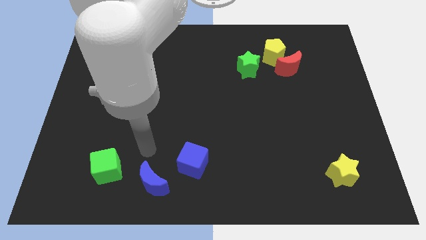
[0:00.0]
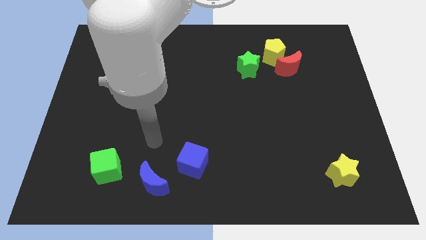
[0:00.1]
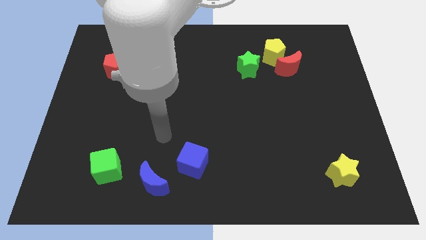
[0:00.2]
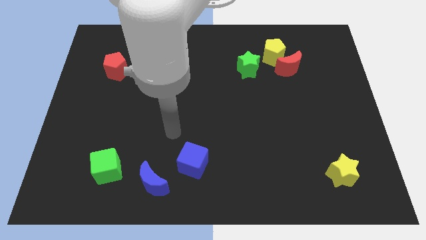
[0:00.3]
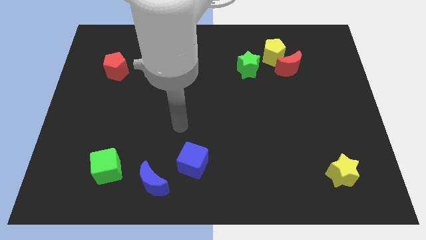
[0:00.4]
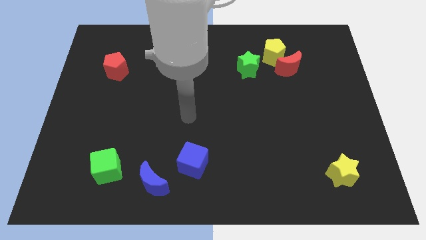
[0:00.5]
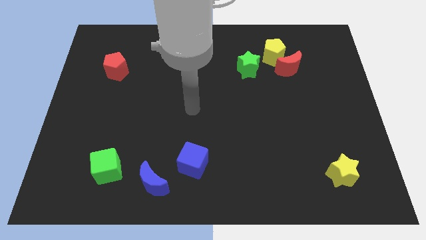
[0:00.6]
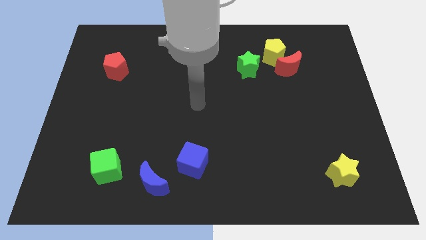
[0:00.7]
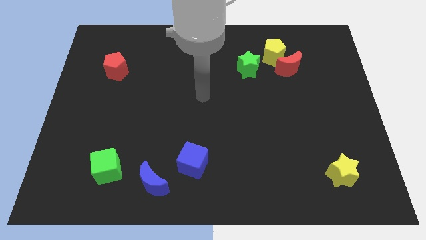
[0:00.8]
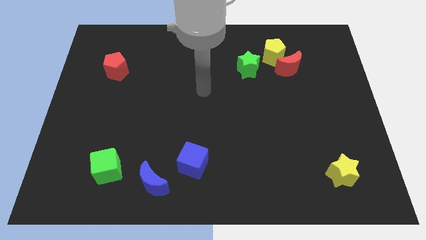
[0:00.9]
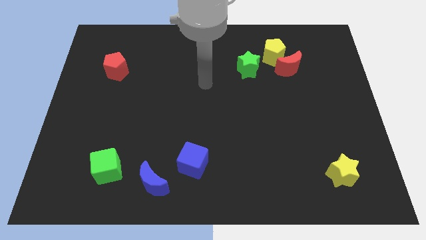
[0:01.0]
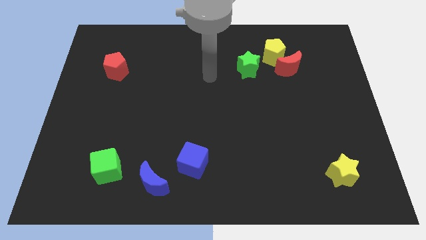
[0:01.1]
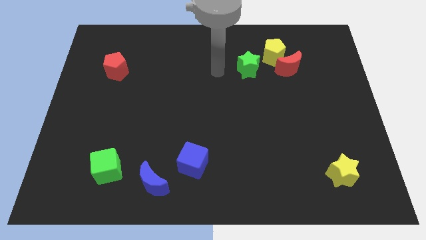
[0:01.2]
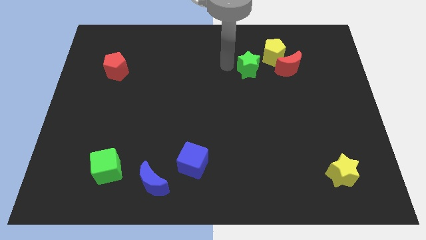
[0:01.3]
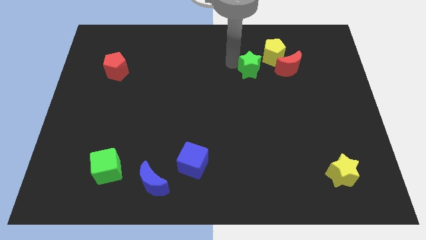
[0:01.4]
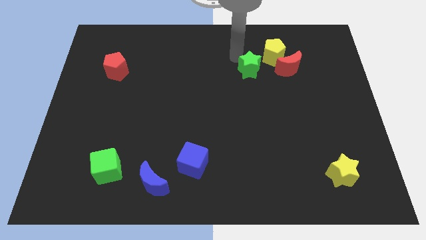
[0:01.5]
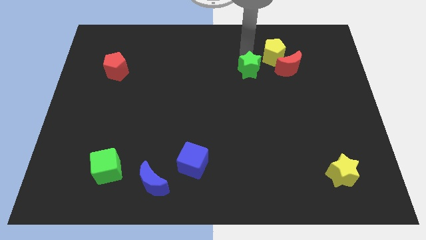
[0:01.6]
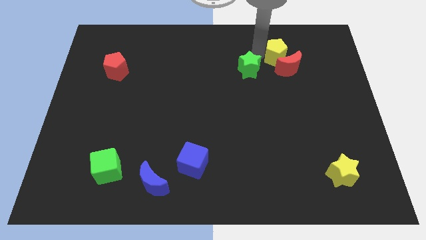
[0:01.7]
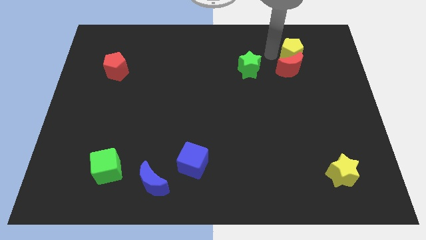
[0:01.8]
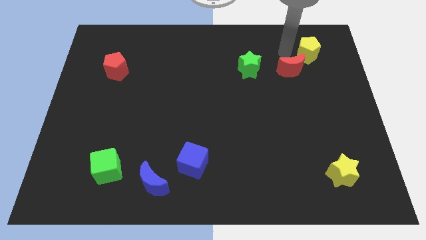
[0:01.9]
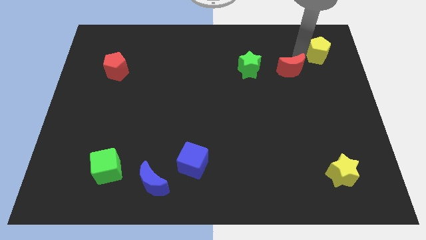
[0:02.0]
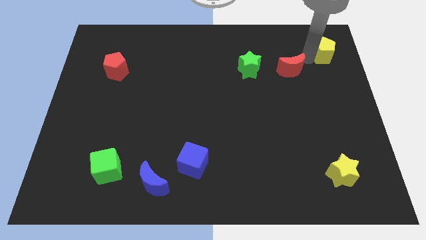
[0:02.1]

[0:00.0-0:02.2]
pull the red moon apart from the yellow pentagon

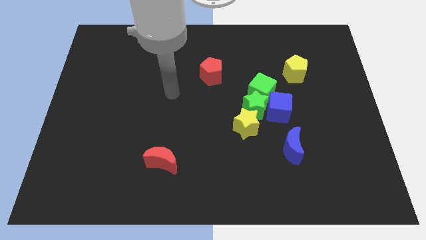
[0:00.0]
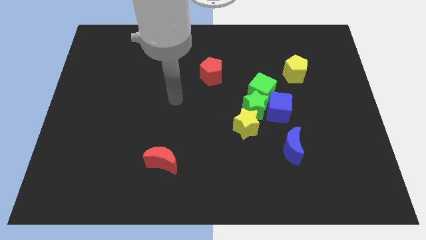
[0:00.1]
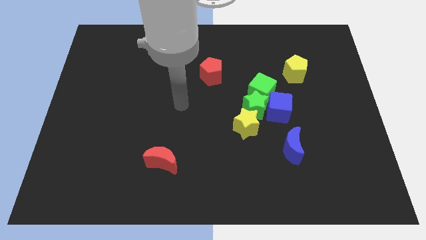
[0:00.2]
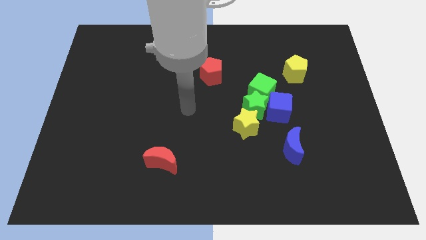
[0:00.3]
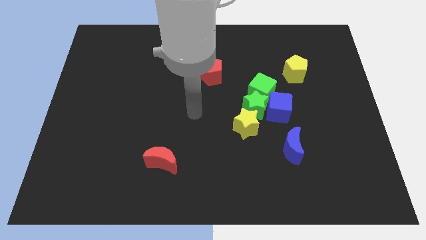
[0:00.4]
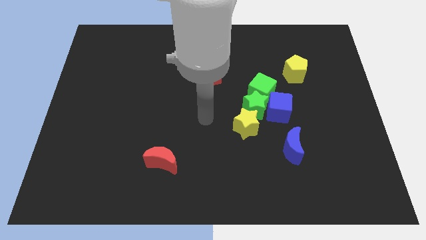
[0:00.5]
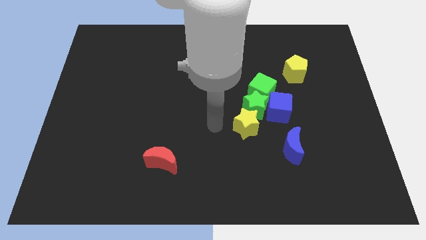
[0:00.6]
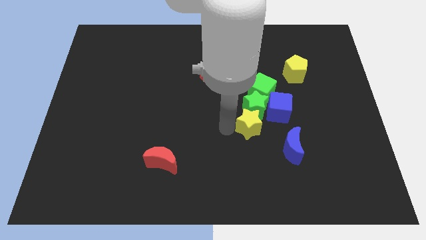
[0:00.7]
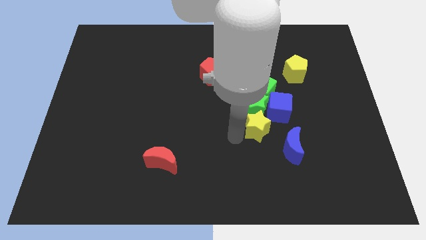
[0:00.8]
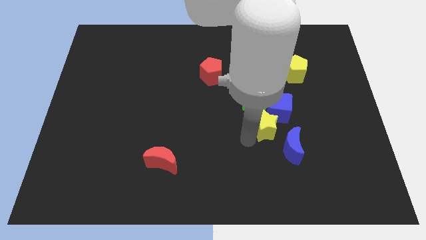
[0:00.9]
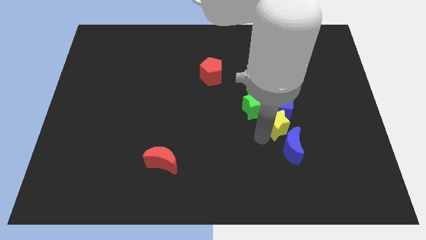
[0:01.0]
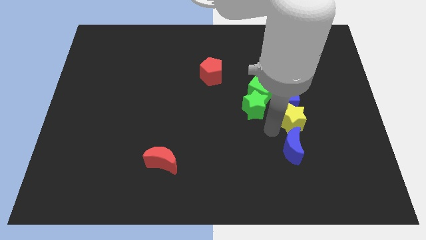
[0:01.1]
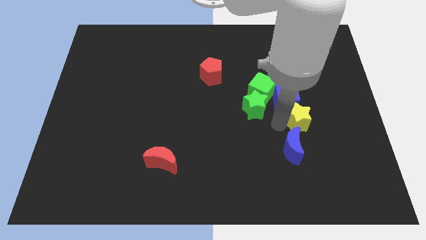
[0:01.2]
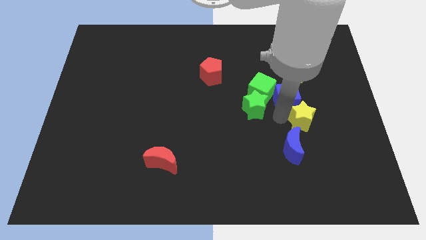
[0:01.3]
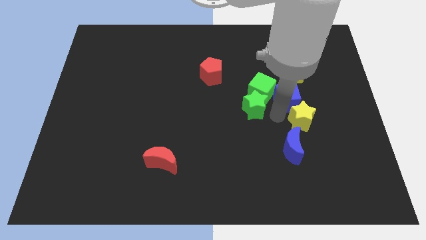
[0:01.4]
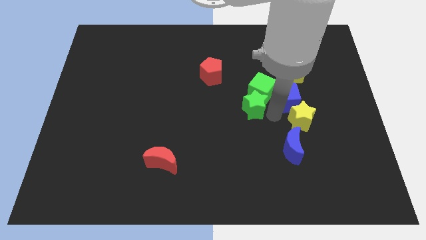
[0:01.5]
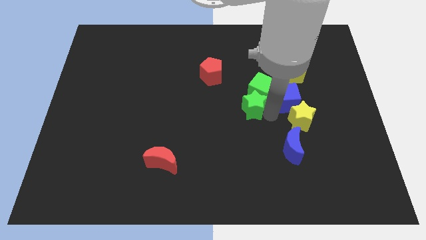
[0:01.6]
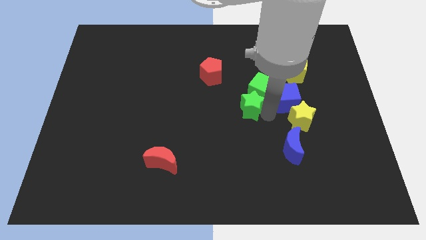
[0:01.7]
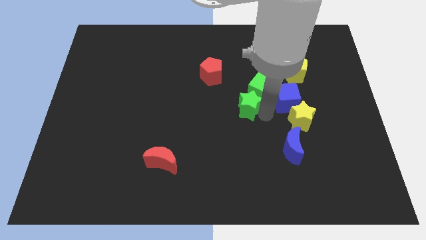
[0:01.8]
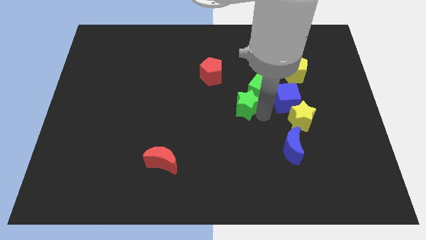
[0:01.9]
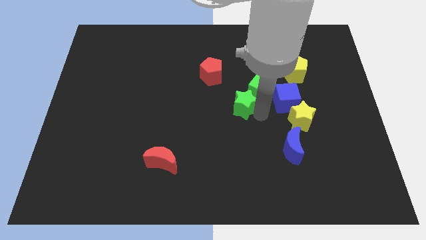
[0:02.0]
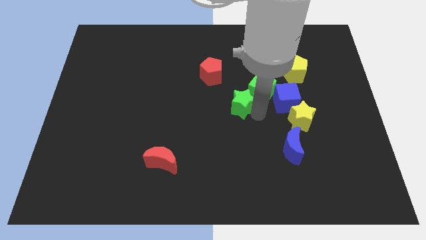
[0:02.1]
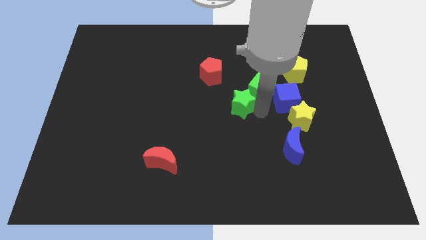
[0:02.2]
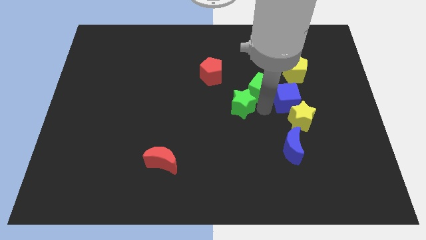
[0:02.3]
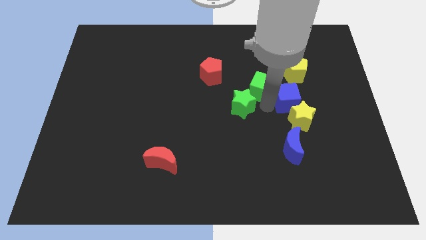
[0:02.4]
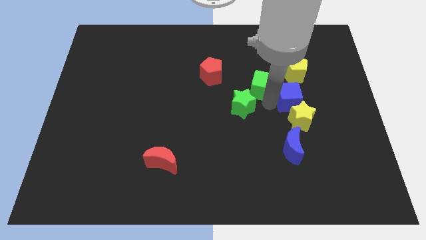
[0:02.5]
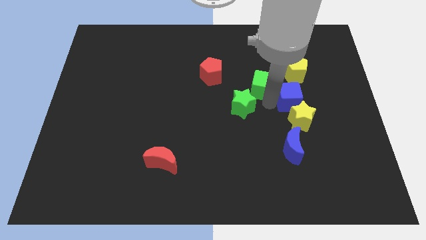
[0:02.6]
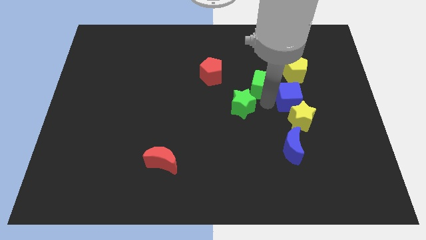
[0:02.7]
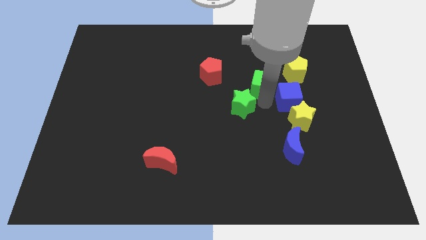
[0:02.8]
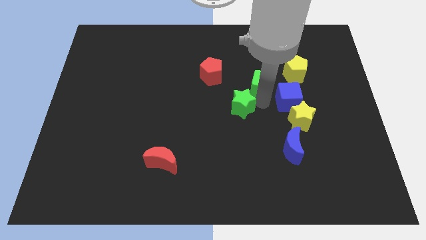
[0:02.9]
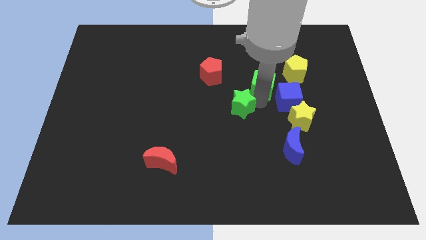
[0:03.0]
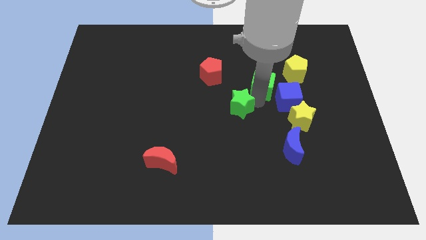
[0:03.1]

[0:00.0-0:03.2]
pull the green star apart from the clump

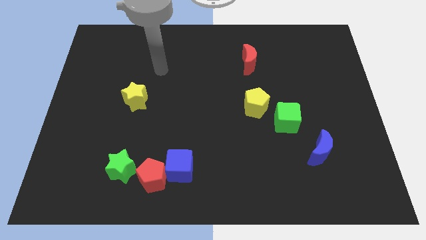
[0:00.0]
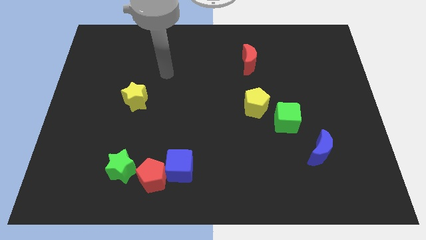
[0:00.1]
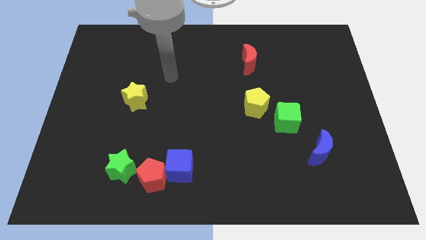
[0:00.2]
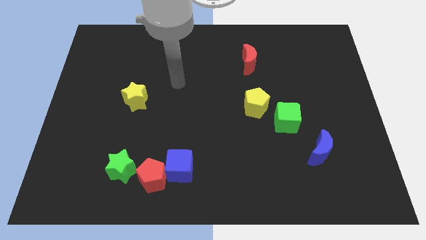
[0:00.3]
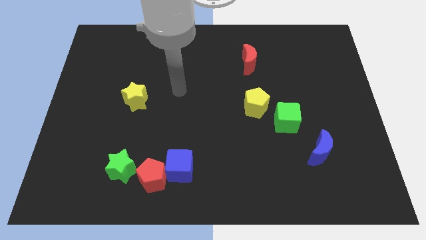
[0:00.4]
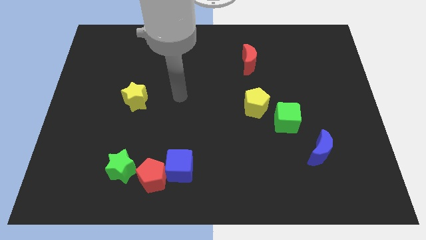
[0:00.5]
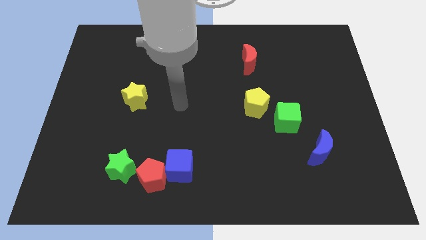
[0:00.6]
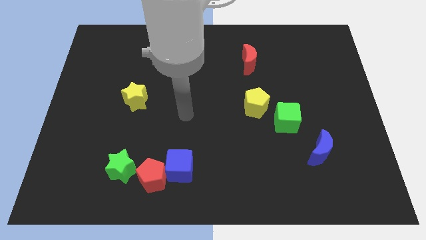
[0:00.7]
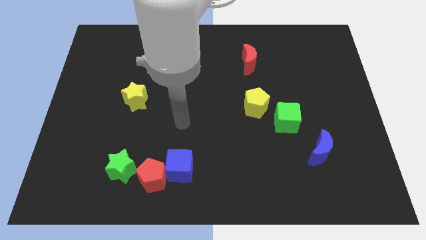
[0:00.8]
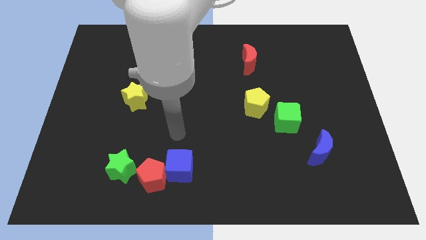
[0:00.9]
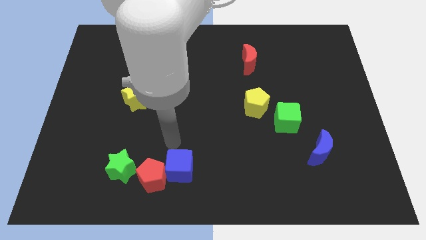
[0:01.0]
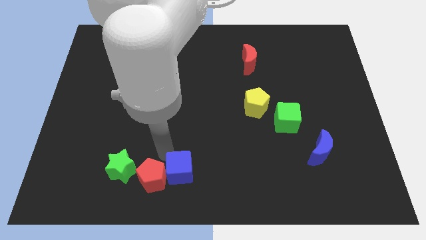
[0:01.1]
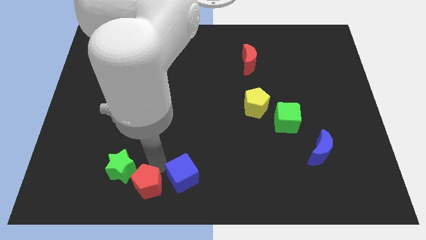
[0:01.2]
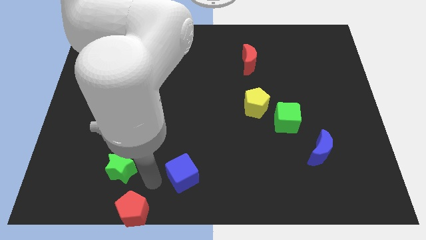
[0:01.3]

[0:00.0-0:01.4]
move the blue cube away from the red pentagon

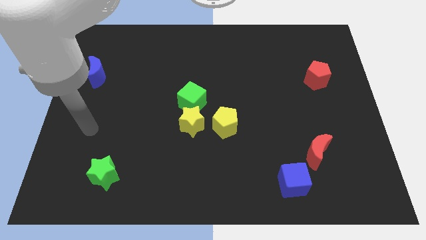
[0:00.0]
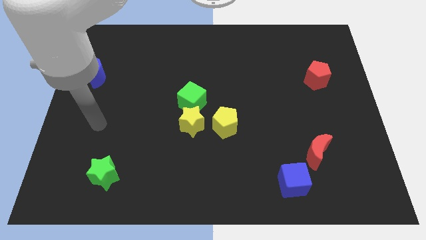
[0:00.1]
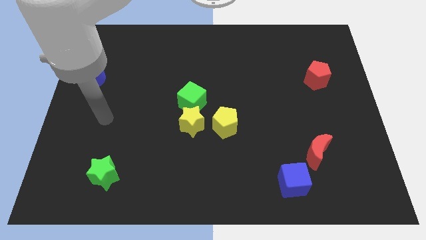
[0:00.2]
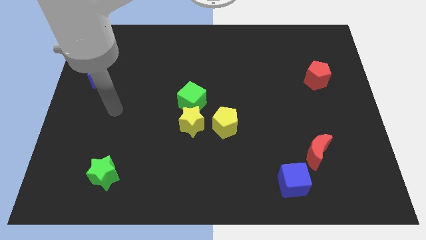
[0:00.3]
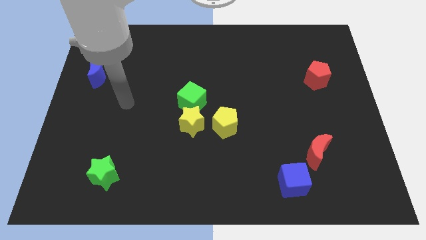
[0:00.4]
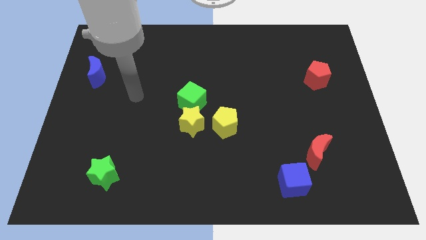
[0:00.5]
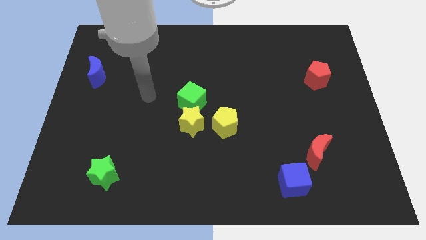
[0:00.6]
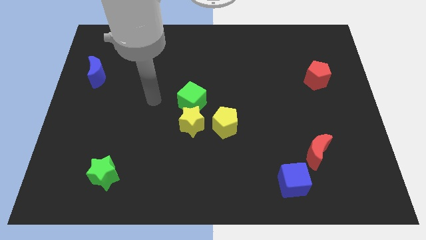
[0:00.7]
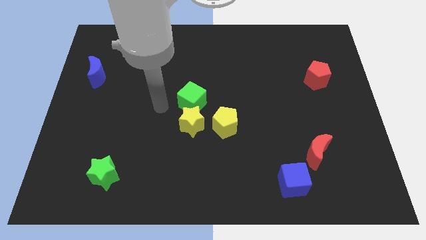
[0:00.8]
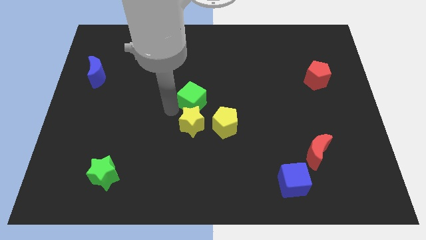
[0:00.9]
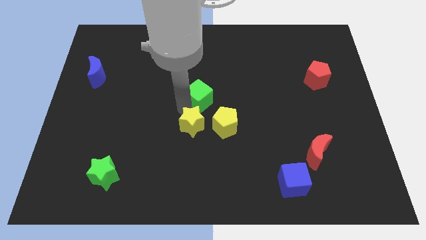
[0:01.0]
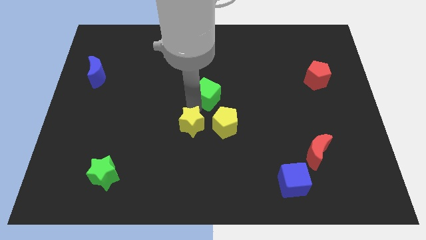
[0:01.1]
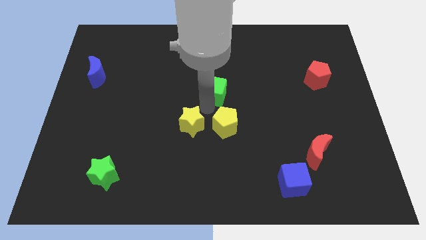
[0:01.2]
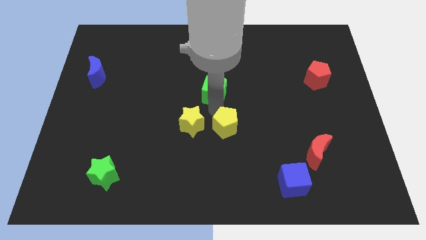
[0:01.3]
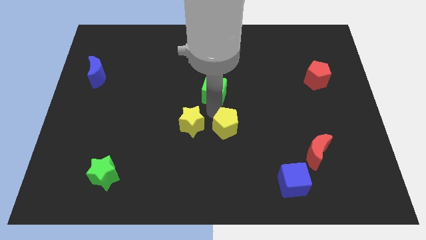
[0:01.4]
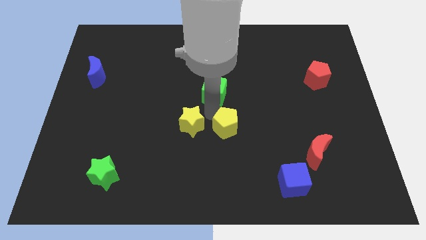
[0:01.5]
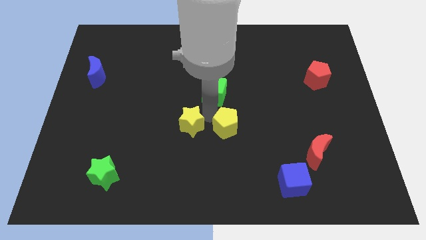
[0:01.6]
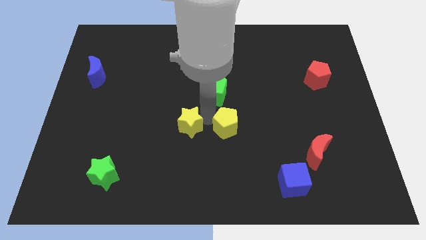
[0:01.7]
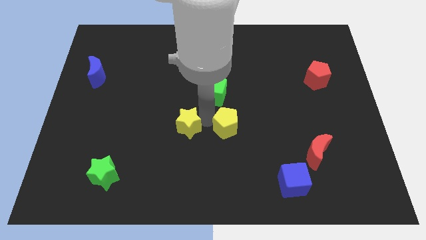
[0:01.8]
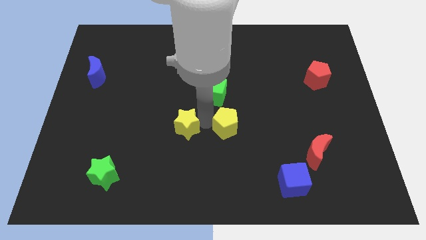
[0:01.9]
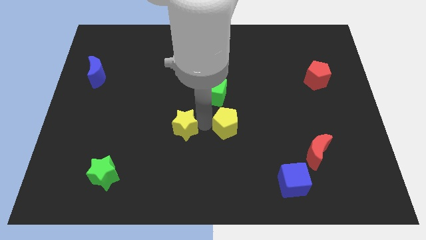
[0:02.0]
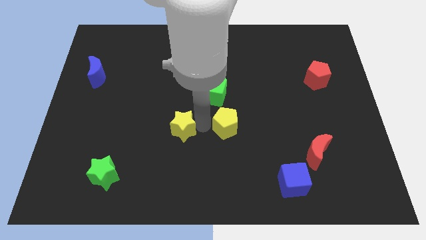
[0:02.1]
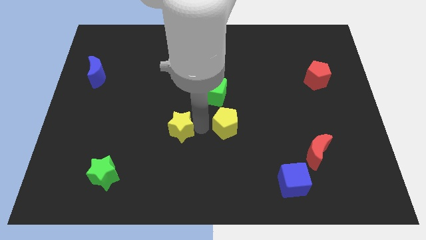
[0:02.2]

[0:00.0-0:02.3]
separate the yellow star from the green cube and yellow pentagon

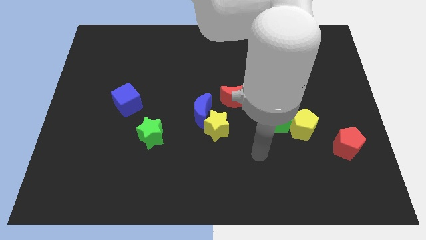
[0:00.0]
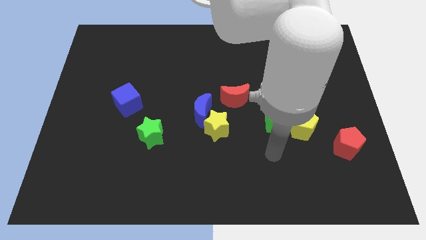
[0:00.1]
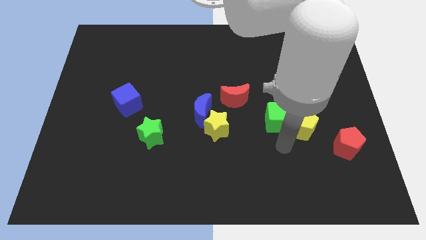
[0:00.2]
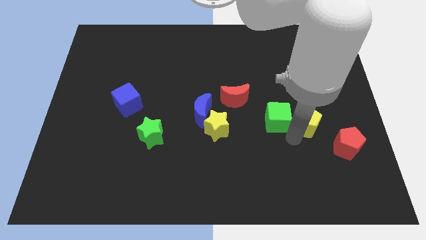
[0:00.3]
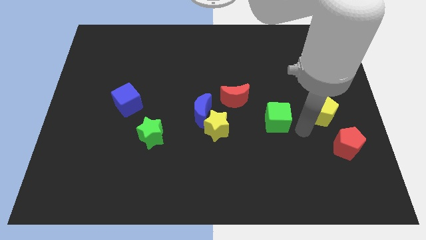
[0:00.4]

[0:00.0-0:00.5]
move the green cube away from the yellow pentagon
